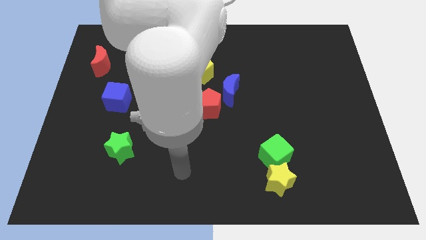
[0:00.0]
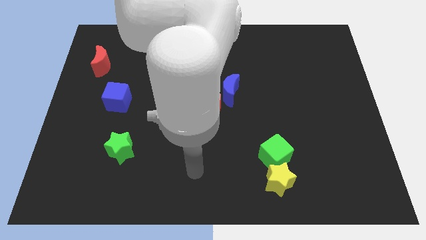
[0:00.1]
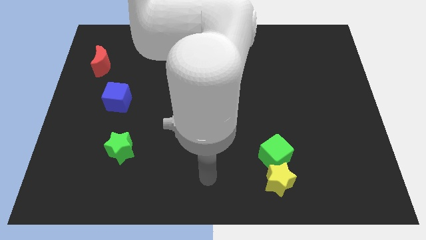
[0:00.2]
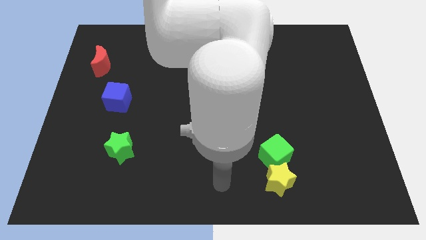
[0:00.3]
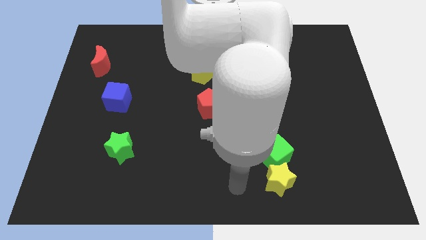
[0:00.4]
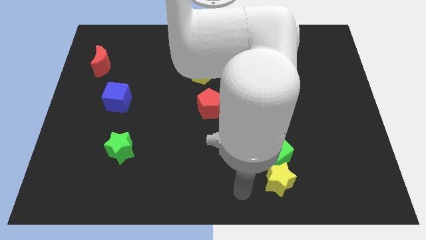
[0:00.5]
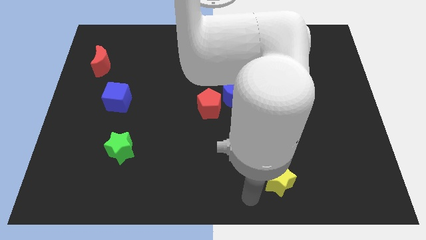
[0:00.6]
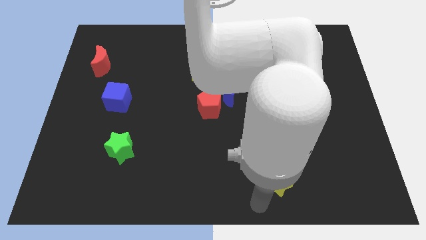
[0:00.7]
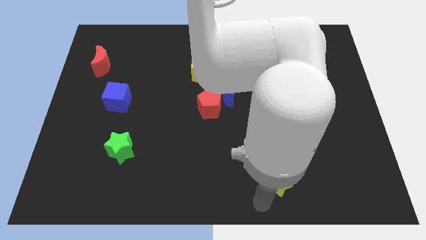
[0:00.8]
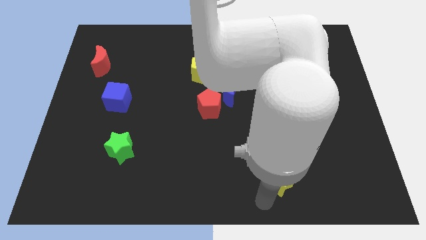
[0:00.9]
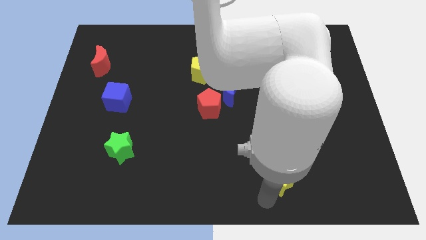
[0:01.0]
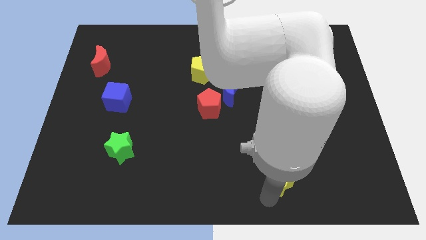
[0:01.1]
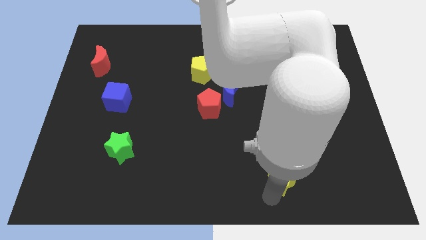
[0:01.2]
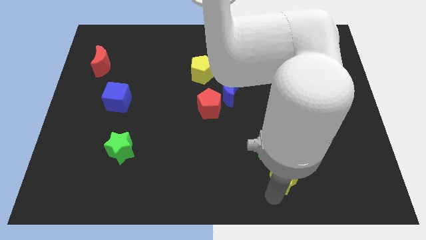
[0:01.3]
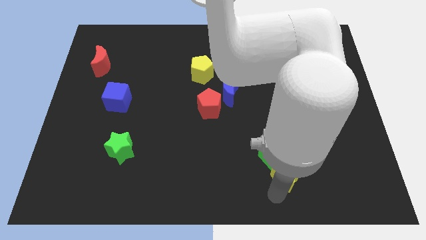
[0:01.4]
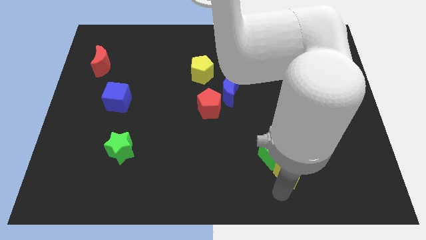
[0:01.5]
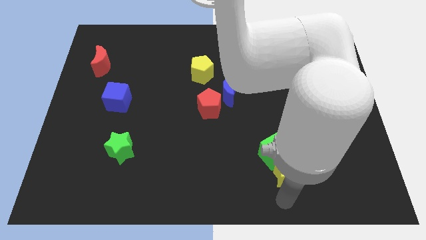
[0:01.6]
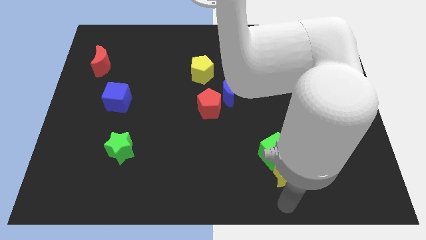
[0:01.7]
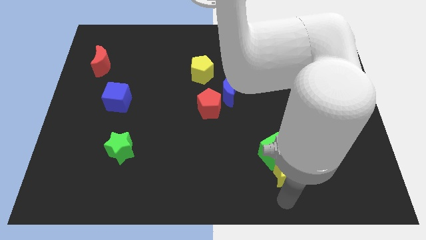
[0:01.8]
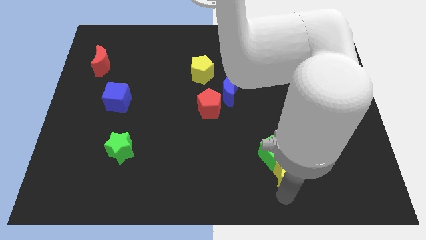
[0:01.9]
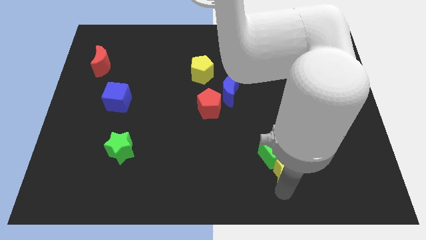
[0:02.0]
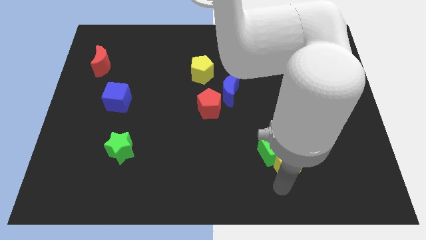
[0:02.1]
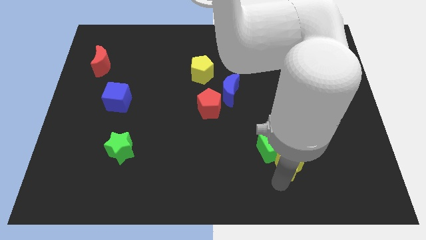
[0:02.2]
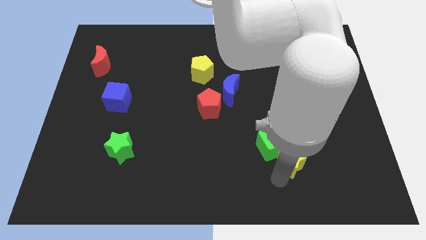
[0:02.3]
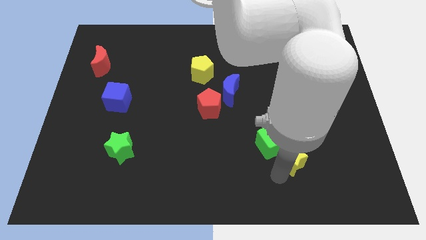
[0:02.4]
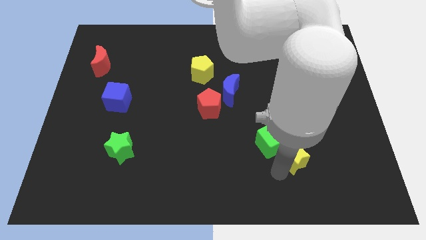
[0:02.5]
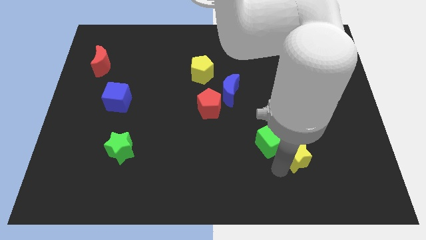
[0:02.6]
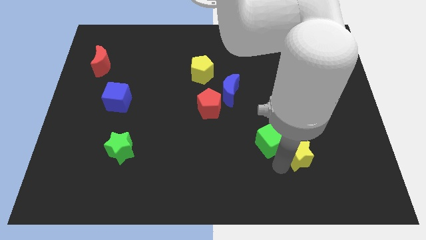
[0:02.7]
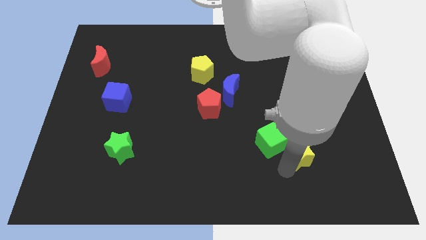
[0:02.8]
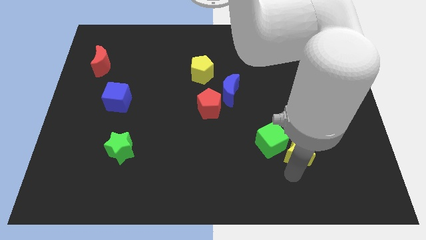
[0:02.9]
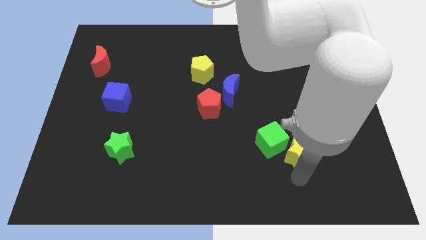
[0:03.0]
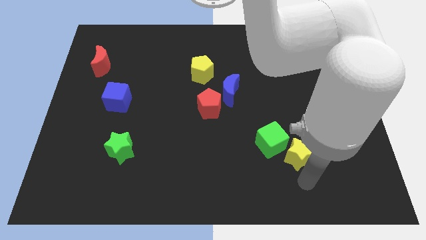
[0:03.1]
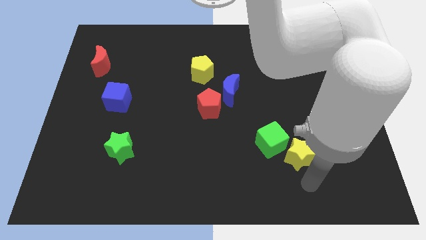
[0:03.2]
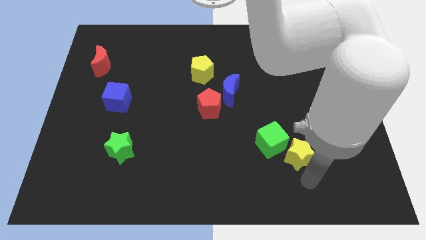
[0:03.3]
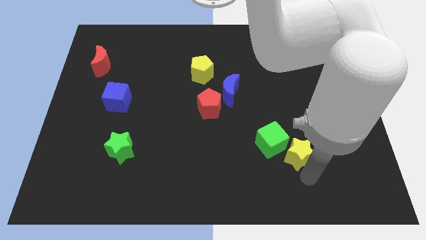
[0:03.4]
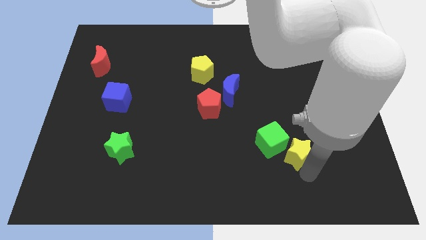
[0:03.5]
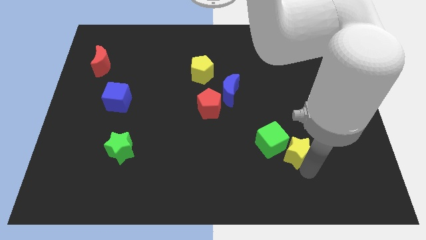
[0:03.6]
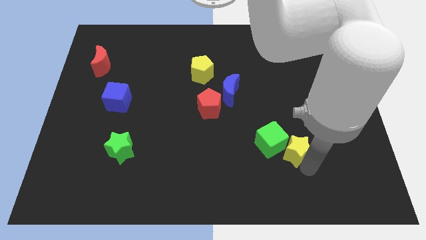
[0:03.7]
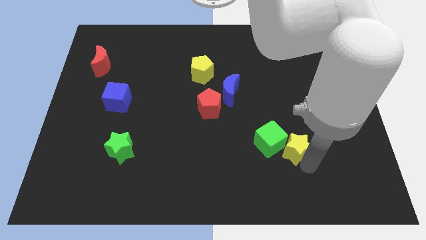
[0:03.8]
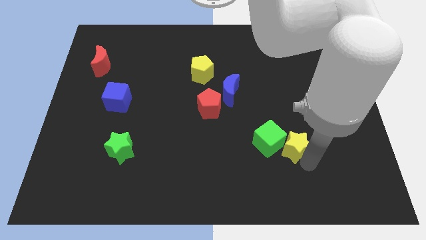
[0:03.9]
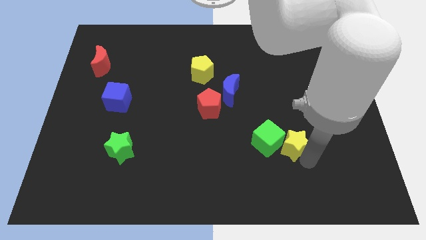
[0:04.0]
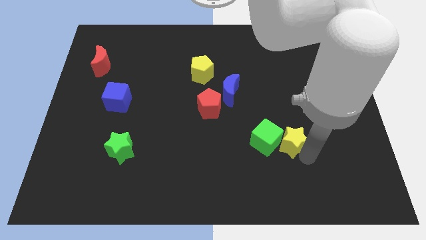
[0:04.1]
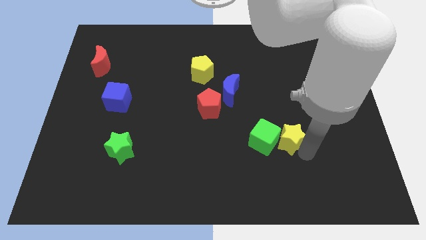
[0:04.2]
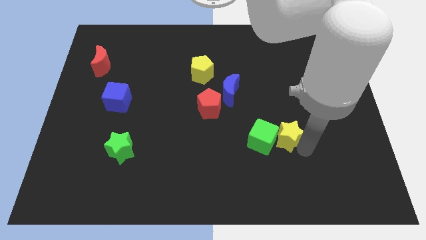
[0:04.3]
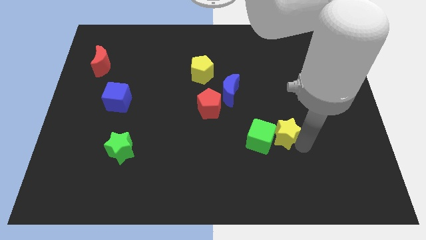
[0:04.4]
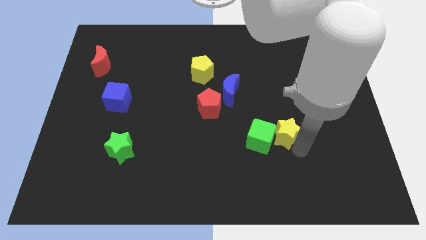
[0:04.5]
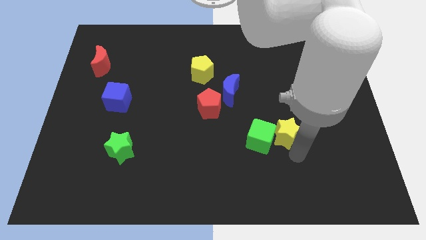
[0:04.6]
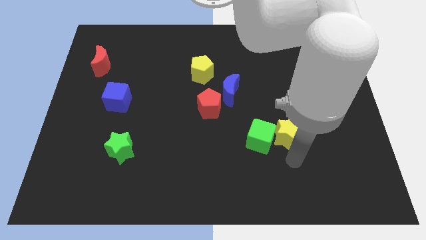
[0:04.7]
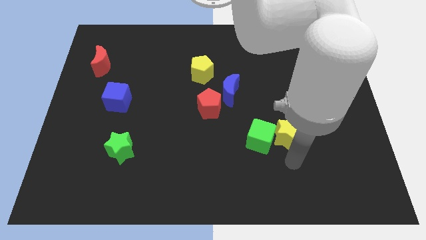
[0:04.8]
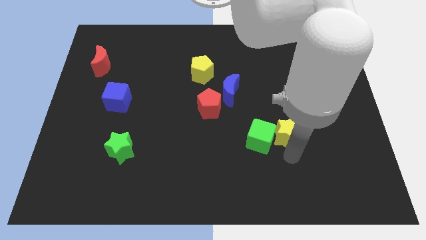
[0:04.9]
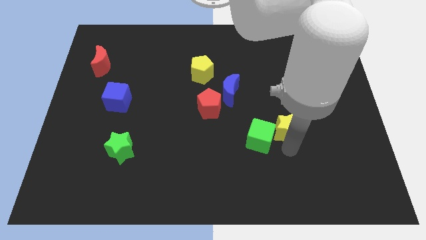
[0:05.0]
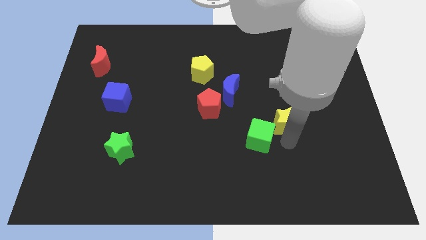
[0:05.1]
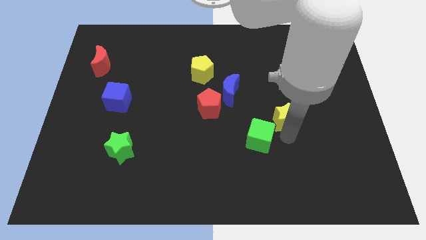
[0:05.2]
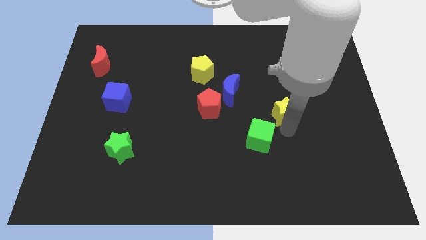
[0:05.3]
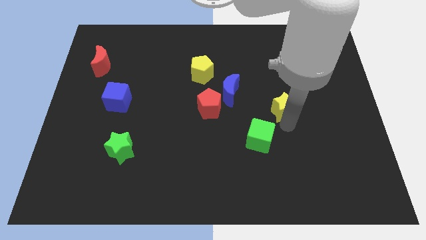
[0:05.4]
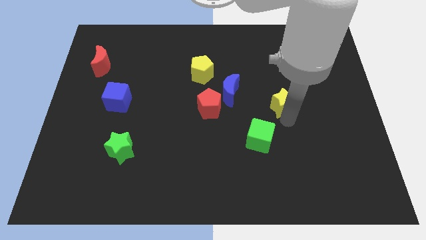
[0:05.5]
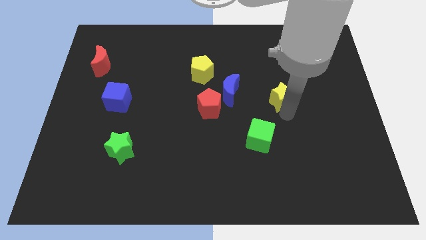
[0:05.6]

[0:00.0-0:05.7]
move the yellow star up

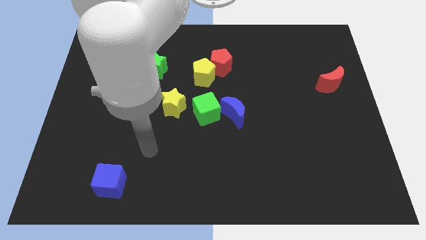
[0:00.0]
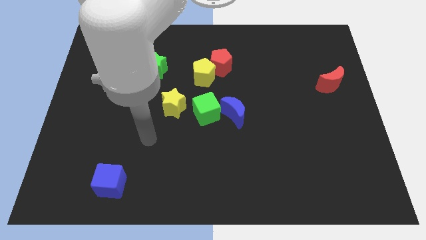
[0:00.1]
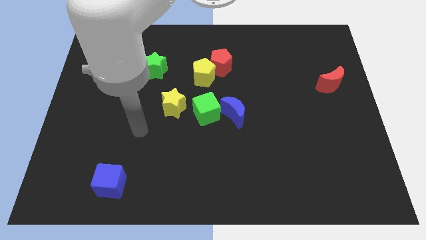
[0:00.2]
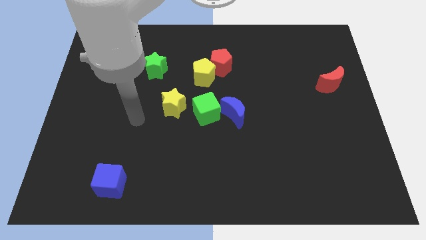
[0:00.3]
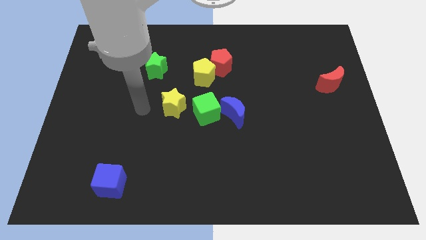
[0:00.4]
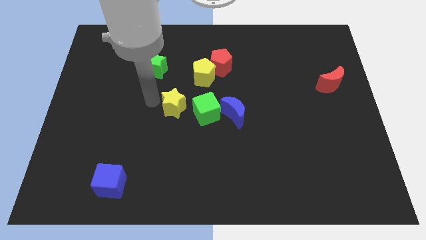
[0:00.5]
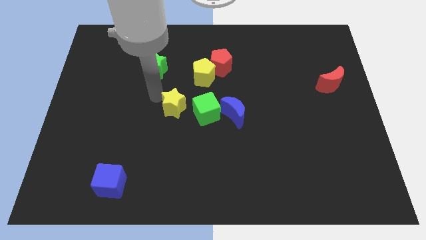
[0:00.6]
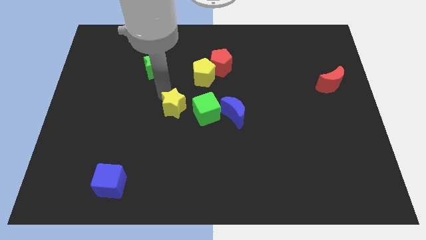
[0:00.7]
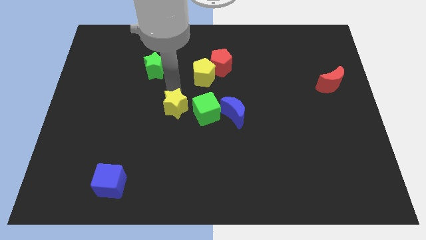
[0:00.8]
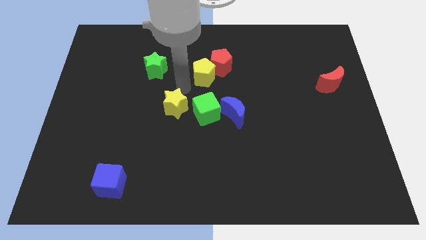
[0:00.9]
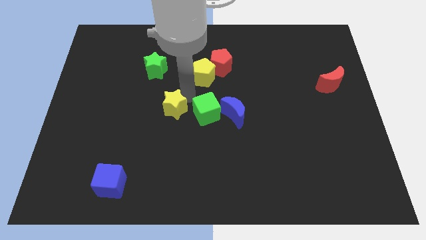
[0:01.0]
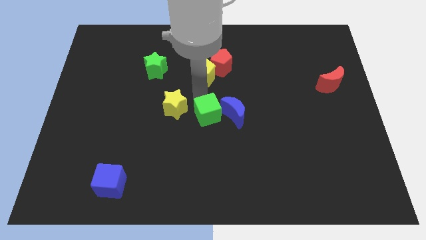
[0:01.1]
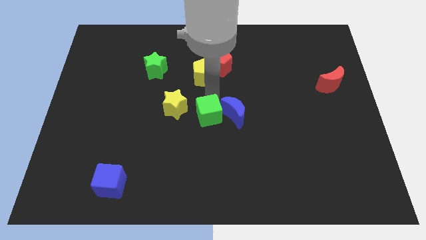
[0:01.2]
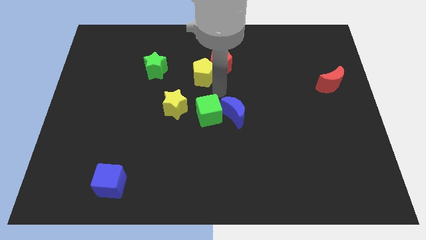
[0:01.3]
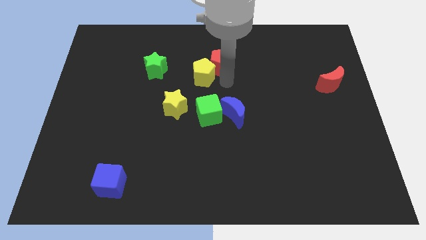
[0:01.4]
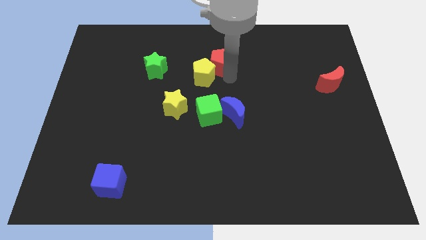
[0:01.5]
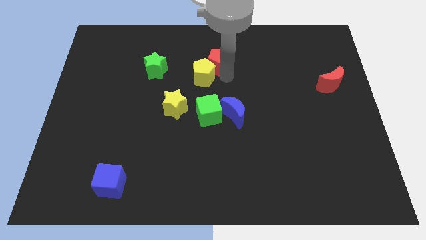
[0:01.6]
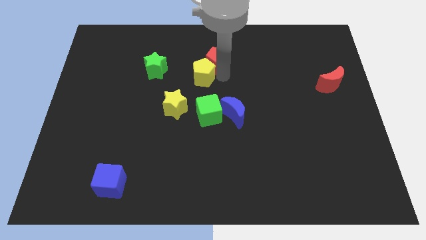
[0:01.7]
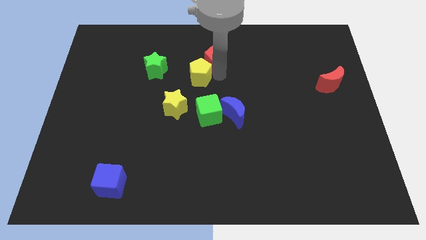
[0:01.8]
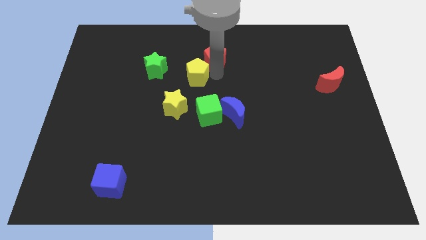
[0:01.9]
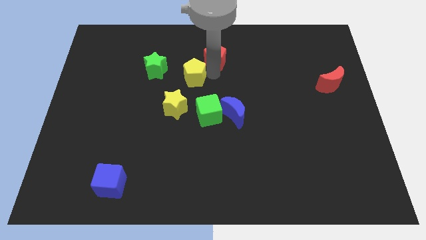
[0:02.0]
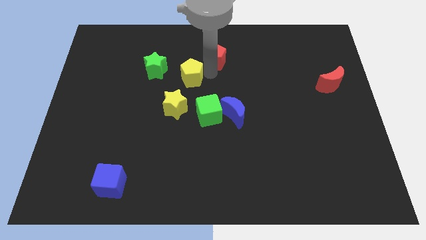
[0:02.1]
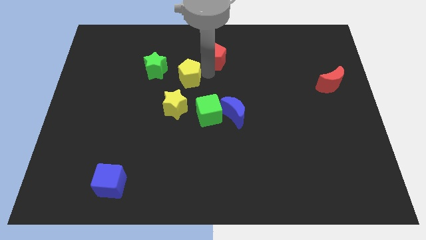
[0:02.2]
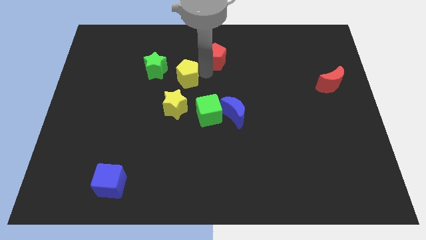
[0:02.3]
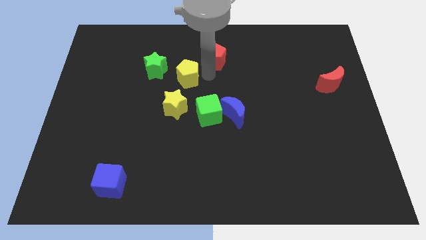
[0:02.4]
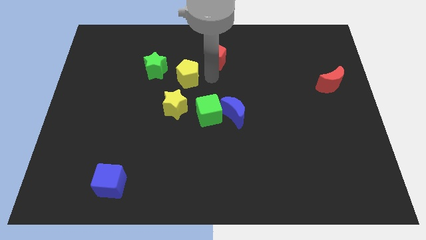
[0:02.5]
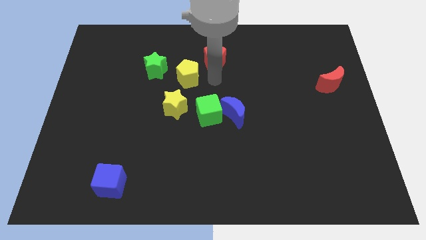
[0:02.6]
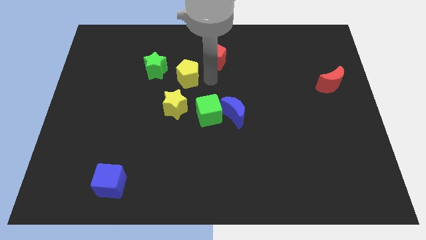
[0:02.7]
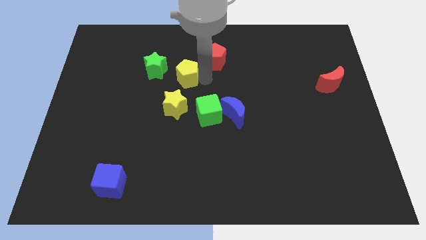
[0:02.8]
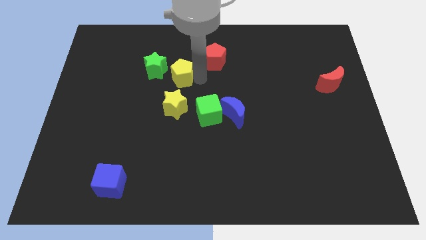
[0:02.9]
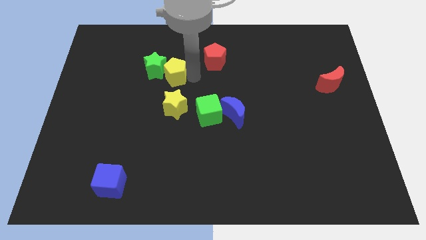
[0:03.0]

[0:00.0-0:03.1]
push the yellow pentagon to the left somewhat
